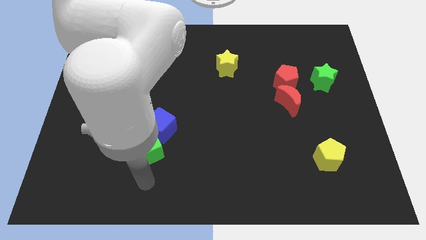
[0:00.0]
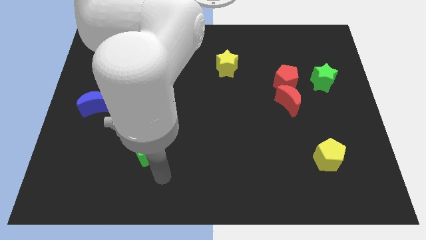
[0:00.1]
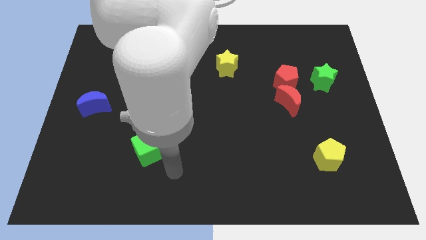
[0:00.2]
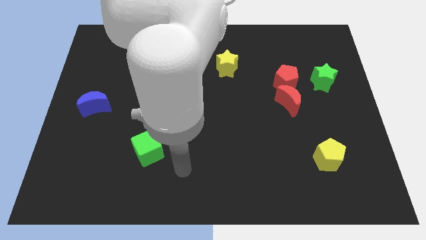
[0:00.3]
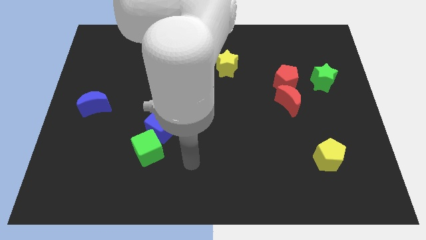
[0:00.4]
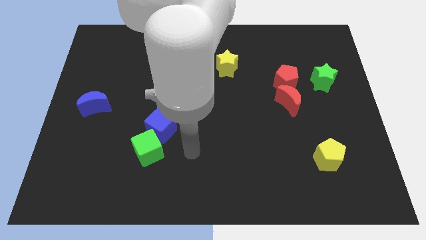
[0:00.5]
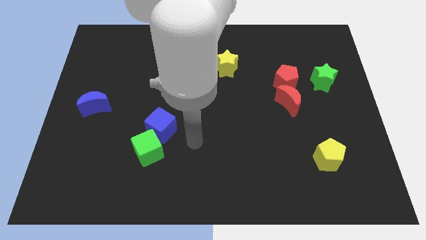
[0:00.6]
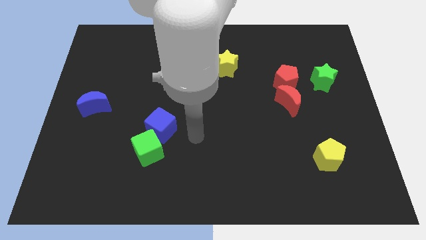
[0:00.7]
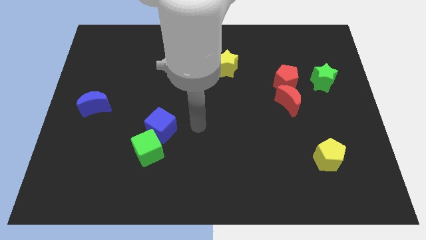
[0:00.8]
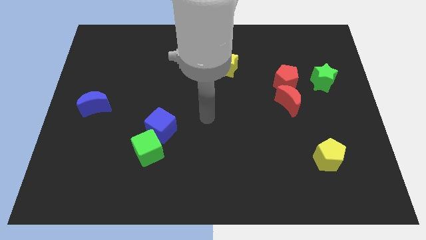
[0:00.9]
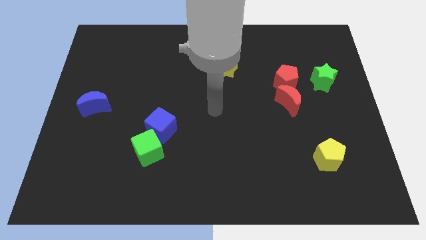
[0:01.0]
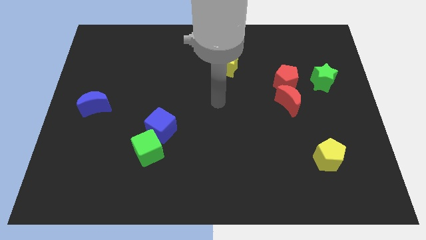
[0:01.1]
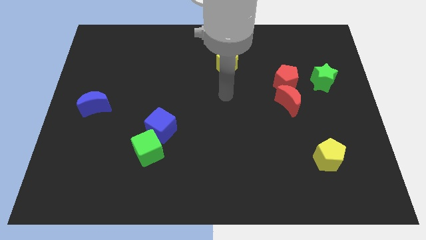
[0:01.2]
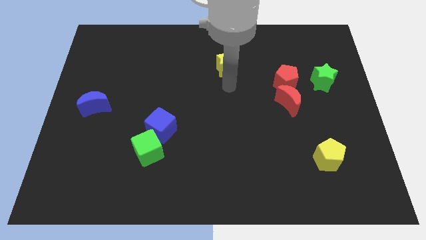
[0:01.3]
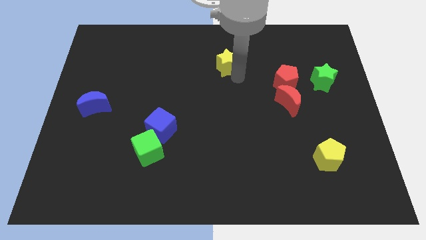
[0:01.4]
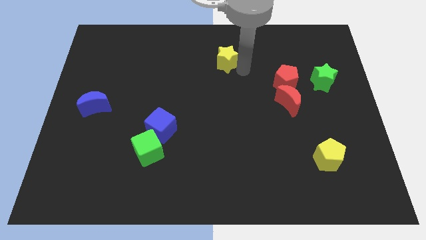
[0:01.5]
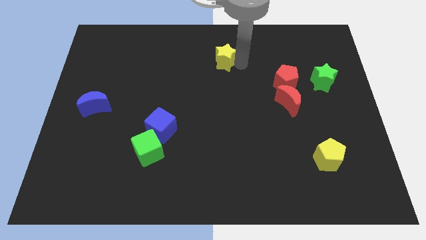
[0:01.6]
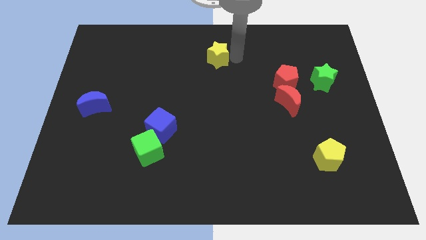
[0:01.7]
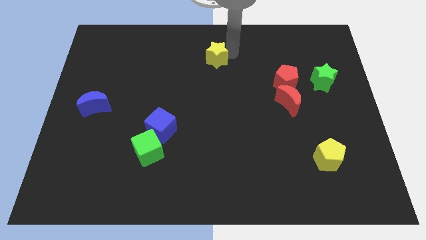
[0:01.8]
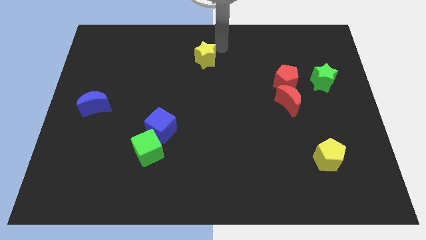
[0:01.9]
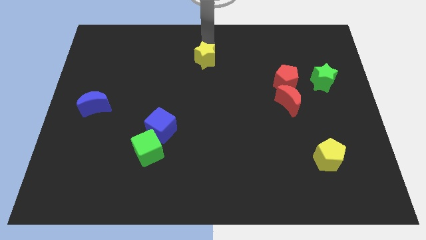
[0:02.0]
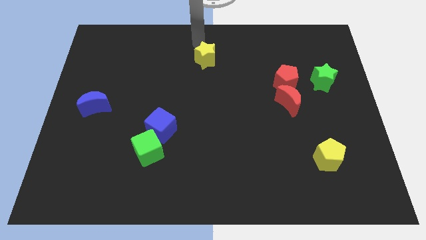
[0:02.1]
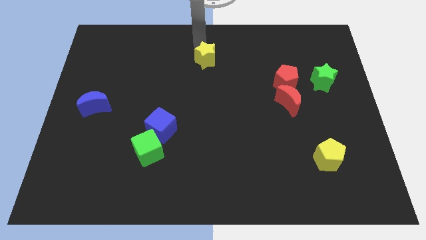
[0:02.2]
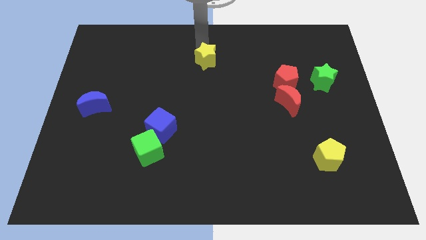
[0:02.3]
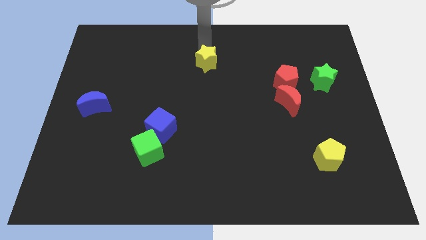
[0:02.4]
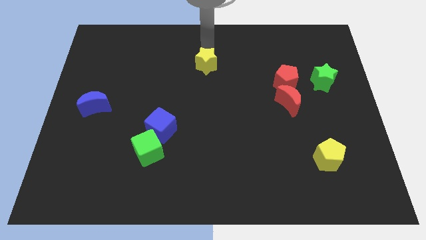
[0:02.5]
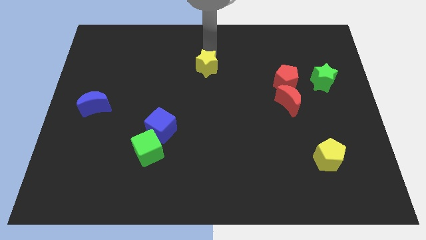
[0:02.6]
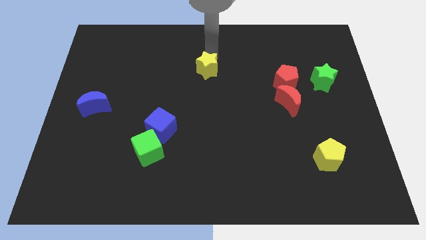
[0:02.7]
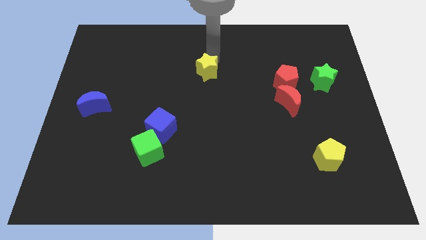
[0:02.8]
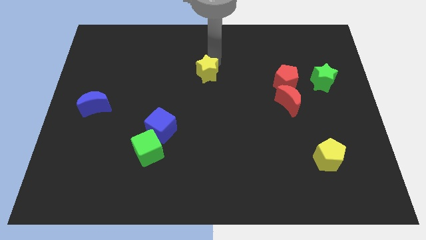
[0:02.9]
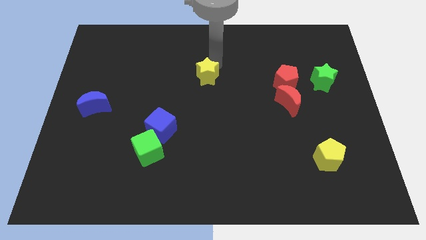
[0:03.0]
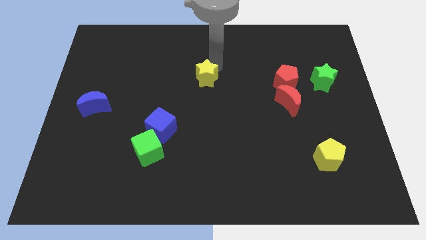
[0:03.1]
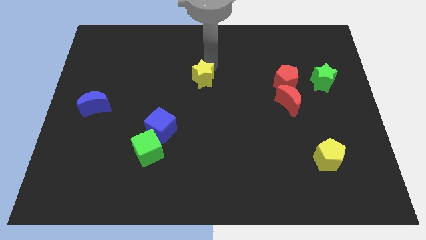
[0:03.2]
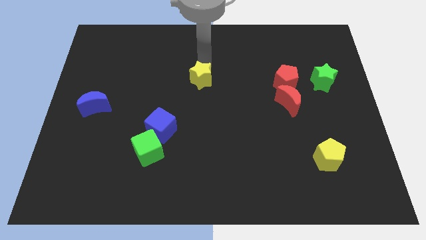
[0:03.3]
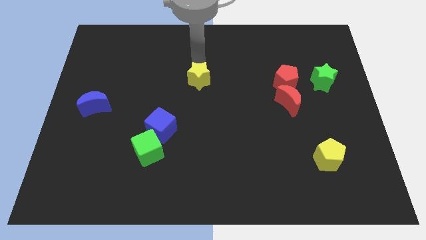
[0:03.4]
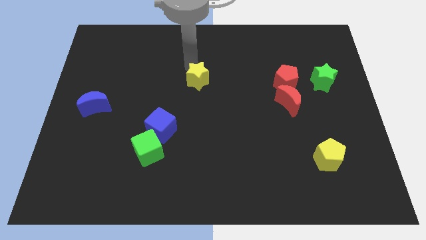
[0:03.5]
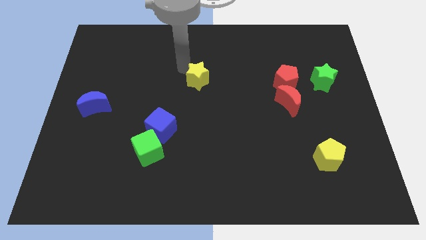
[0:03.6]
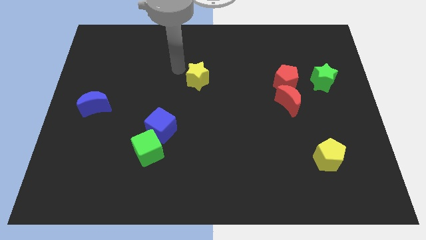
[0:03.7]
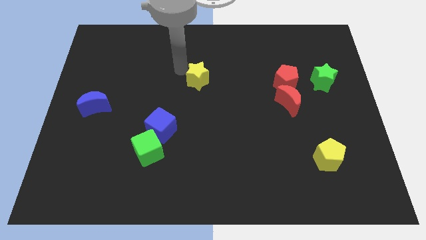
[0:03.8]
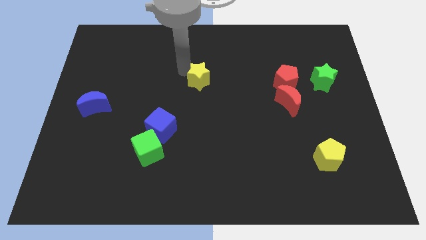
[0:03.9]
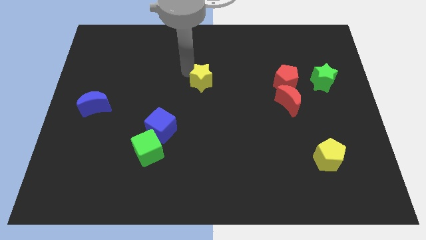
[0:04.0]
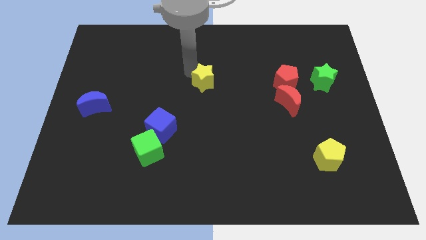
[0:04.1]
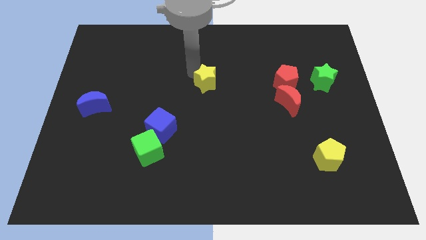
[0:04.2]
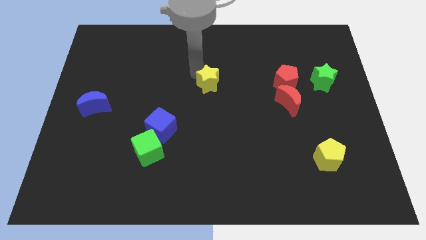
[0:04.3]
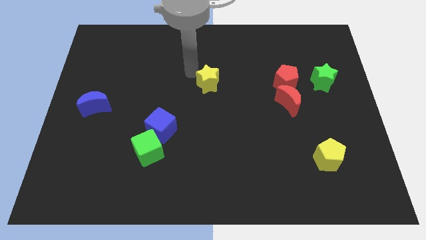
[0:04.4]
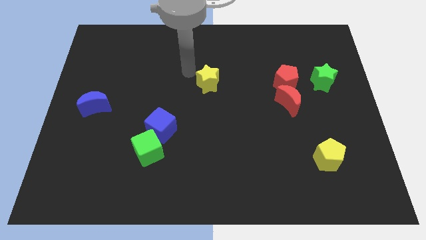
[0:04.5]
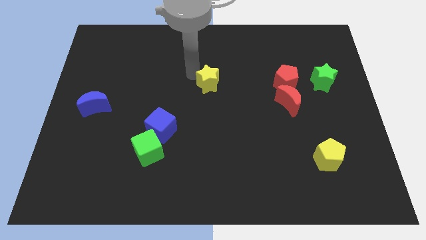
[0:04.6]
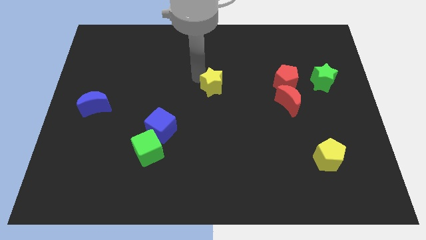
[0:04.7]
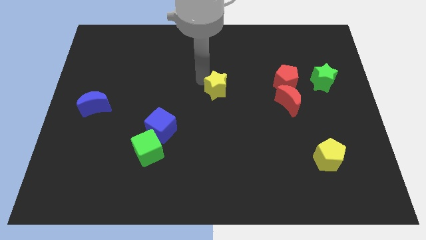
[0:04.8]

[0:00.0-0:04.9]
slightly push the yellow star downwards

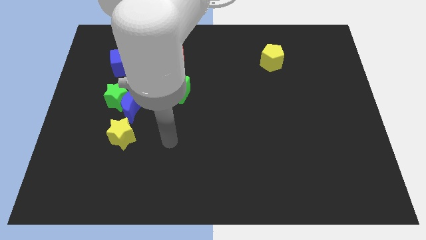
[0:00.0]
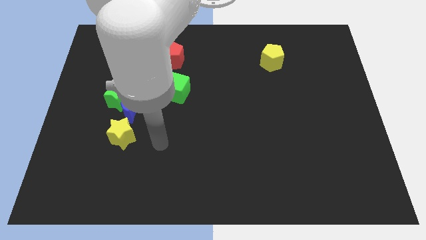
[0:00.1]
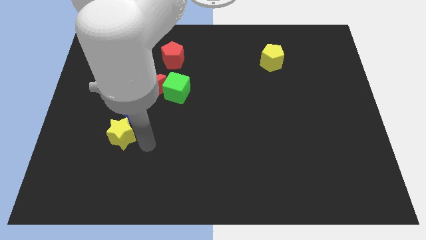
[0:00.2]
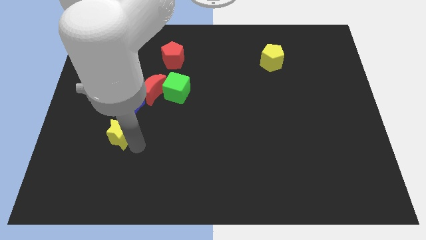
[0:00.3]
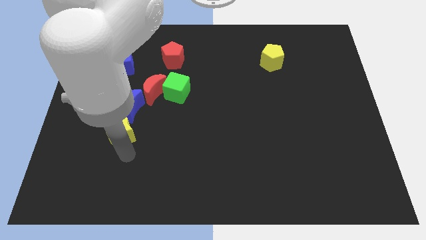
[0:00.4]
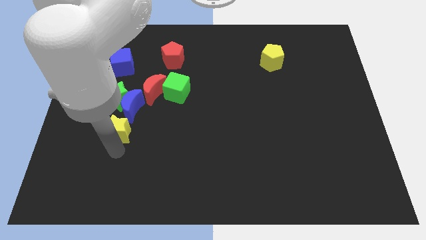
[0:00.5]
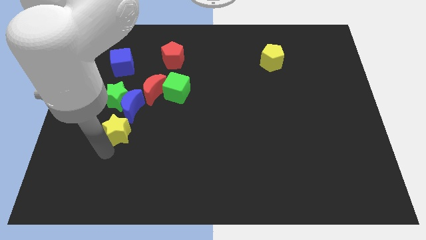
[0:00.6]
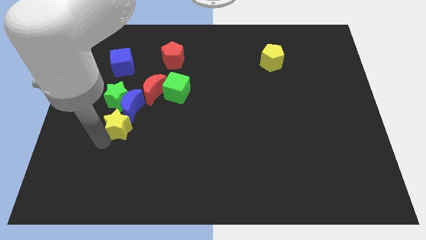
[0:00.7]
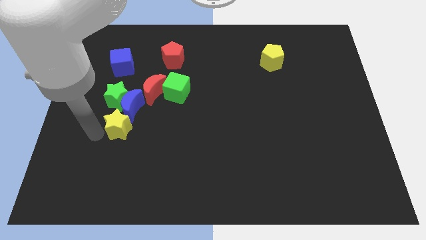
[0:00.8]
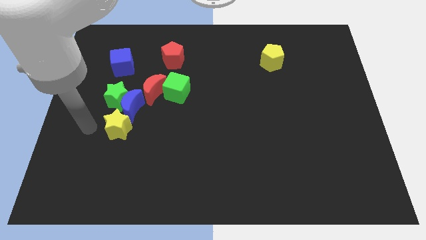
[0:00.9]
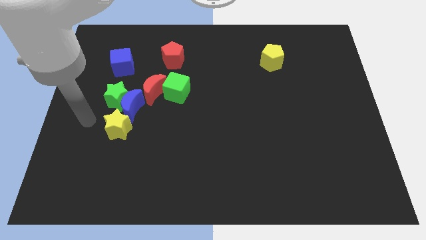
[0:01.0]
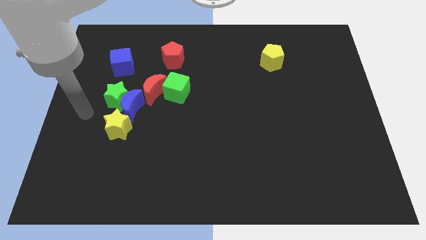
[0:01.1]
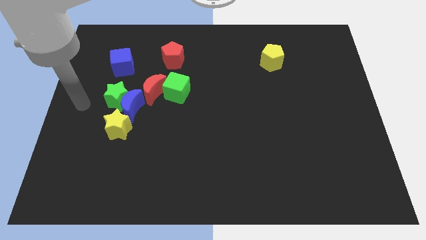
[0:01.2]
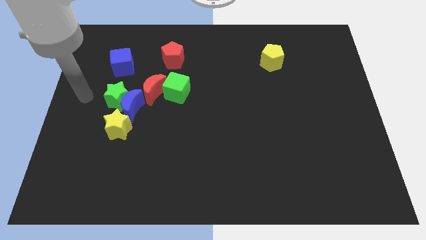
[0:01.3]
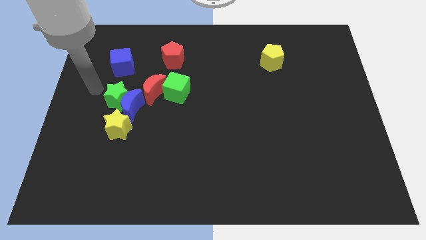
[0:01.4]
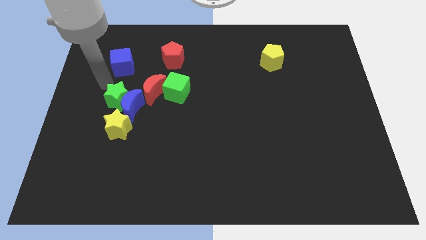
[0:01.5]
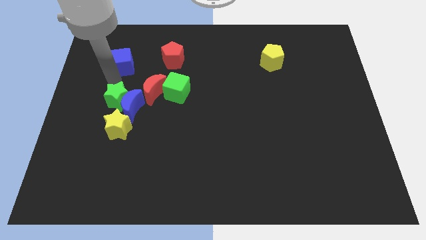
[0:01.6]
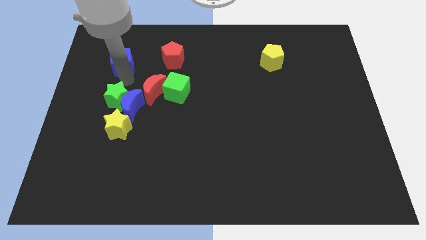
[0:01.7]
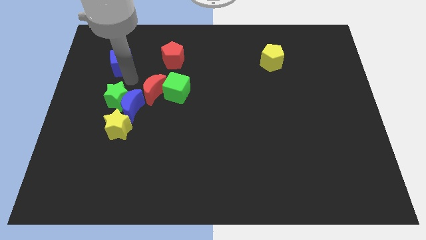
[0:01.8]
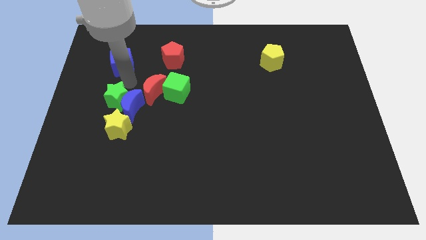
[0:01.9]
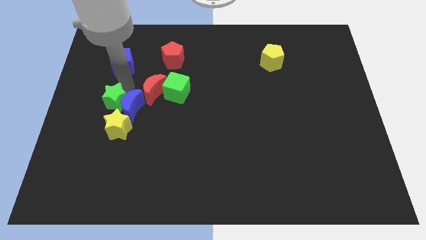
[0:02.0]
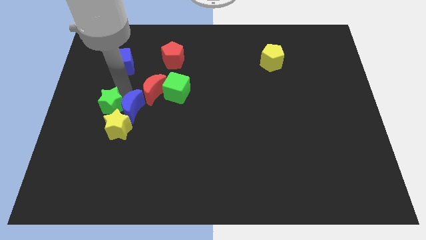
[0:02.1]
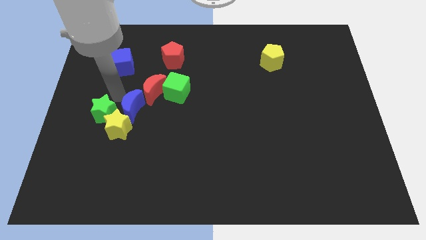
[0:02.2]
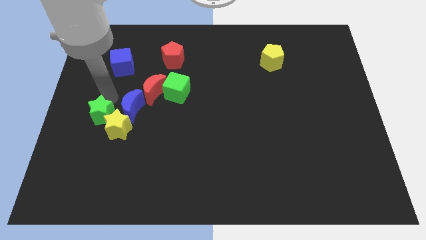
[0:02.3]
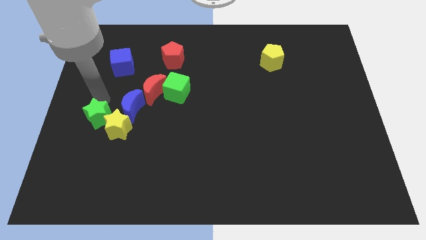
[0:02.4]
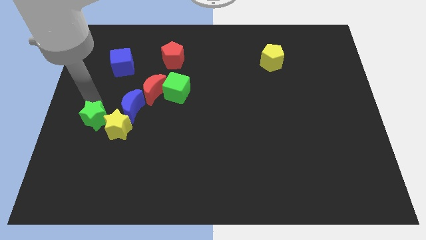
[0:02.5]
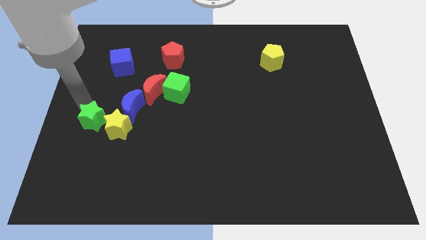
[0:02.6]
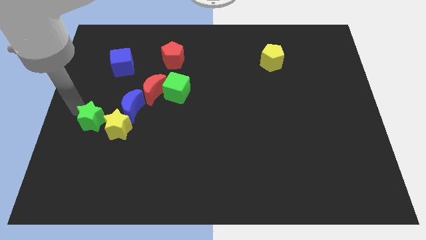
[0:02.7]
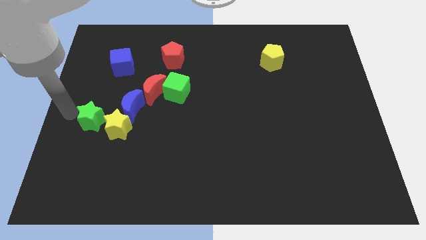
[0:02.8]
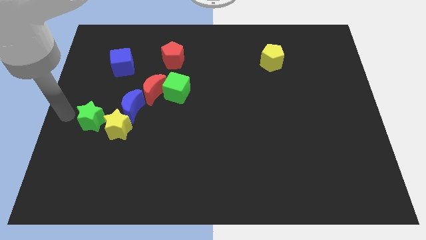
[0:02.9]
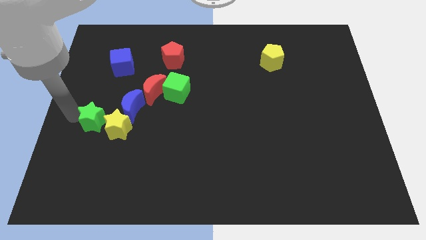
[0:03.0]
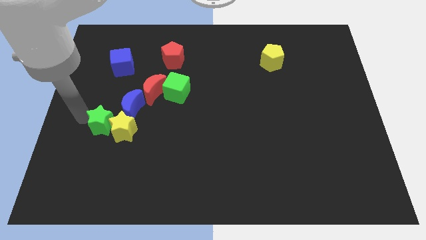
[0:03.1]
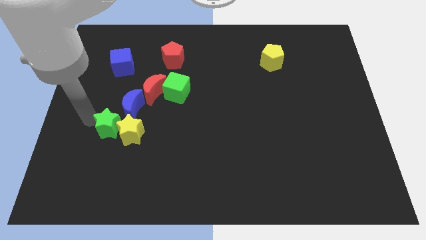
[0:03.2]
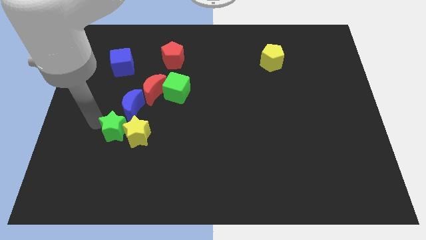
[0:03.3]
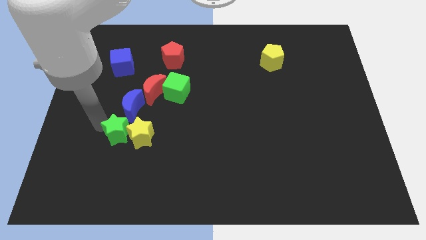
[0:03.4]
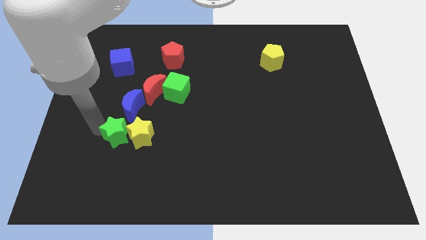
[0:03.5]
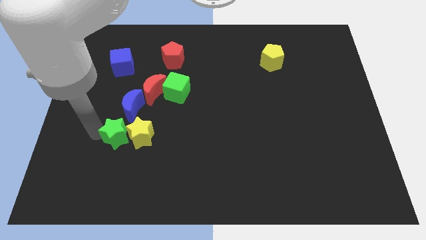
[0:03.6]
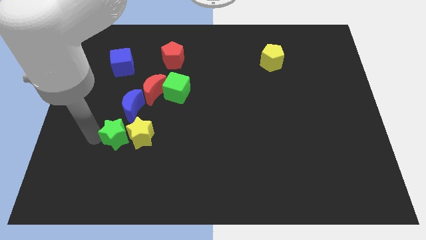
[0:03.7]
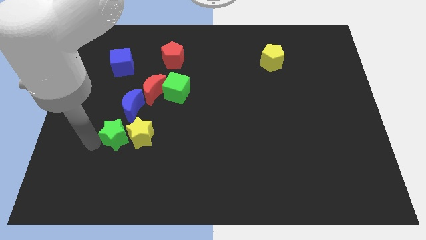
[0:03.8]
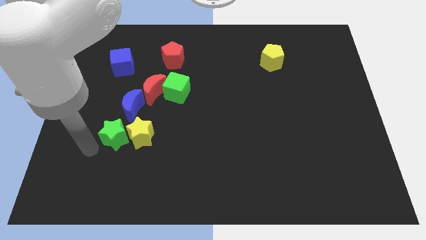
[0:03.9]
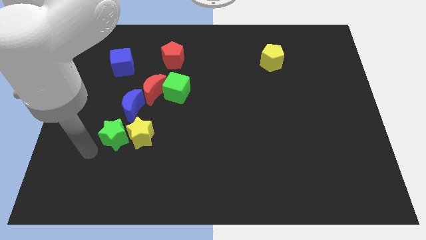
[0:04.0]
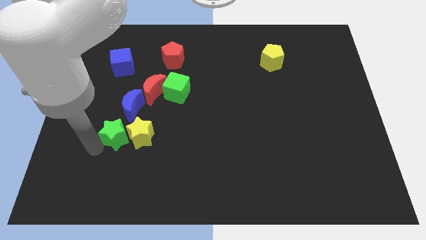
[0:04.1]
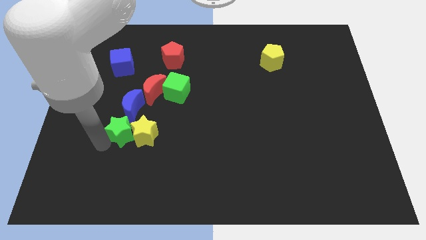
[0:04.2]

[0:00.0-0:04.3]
slightly move the green star down and to the right
